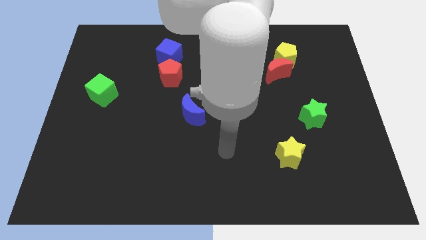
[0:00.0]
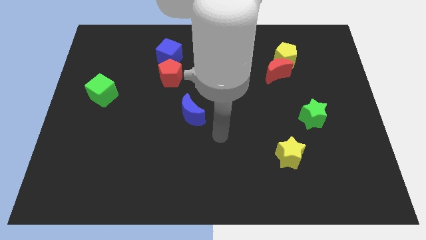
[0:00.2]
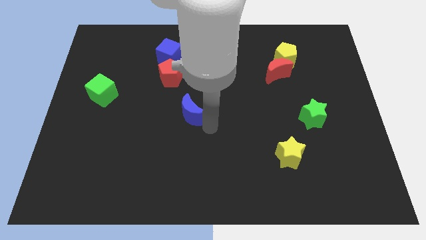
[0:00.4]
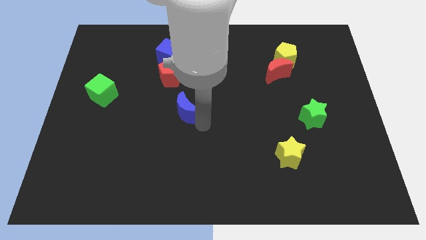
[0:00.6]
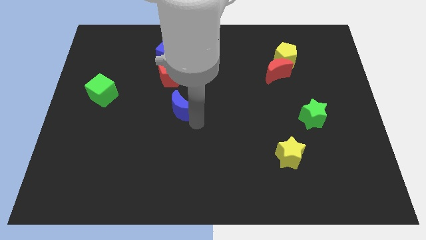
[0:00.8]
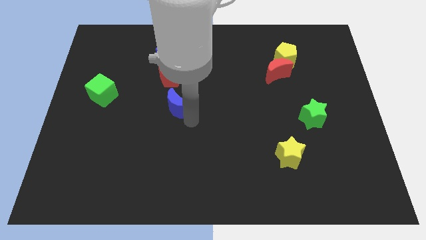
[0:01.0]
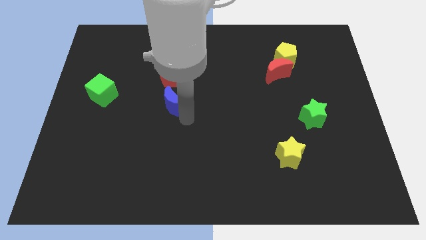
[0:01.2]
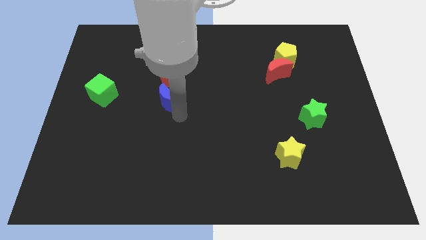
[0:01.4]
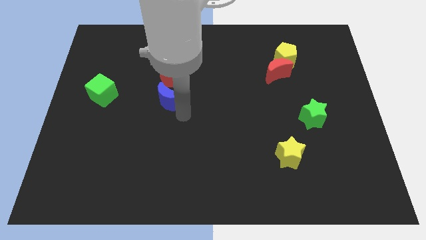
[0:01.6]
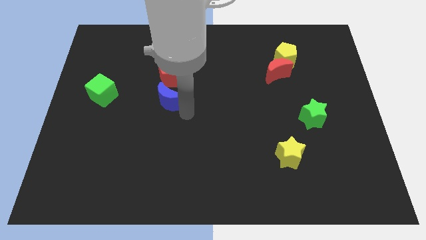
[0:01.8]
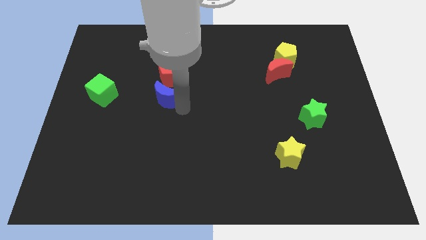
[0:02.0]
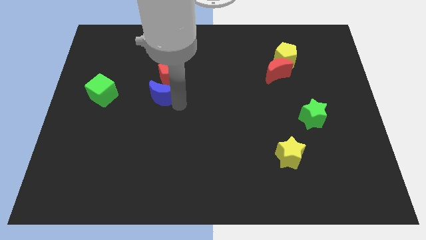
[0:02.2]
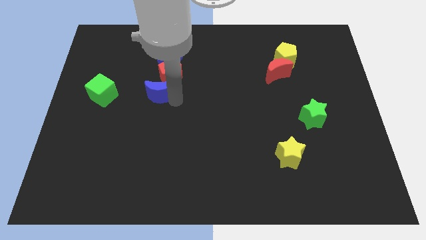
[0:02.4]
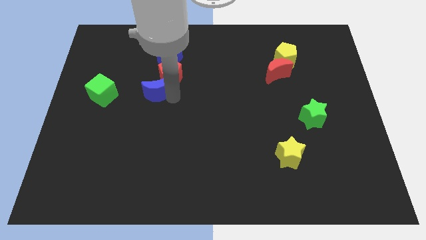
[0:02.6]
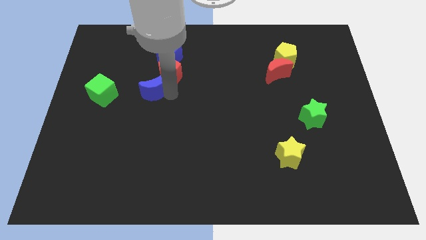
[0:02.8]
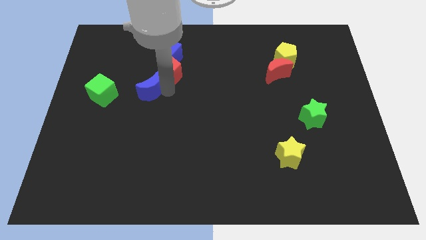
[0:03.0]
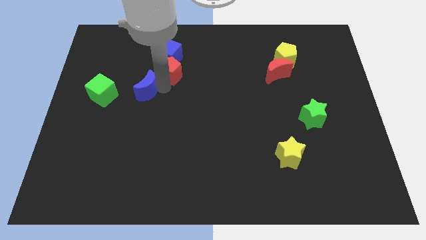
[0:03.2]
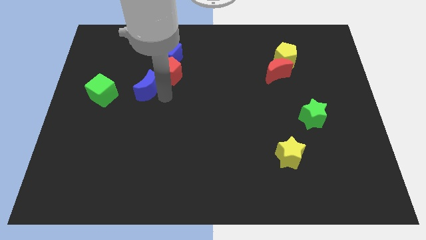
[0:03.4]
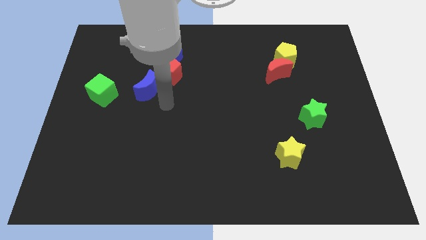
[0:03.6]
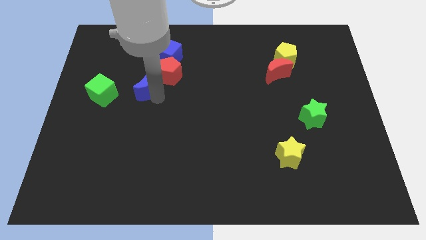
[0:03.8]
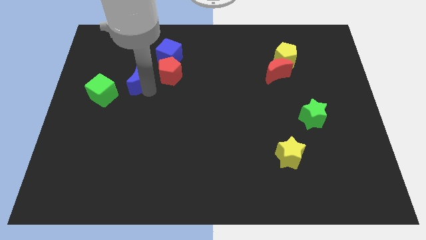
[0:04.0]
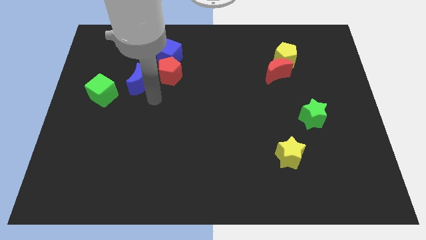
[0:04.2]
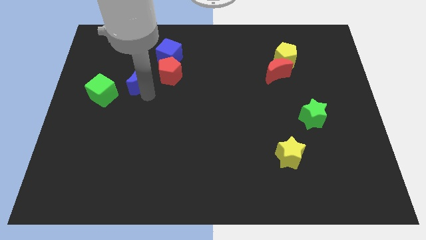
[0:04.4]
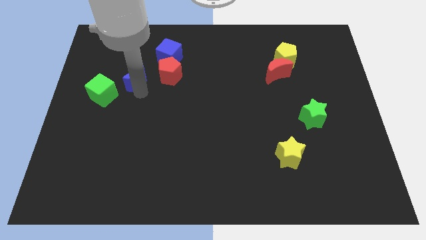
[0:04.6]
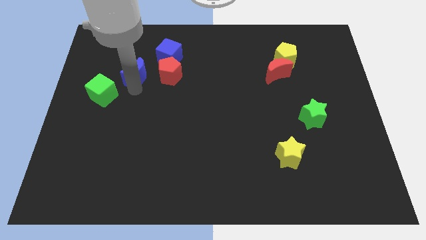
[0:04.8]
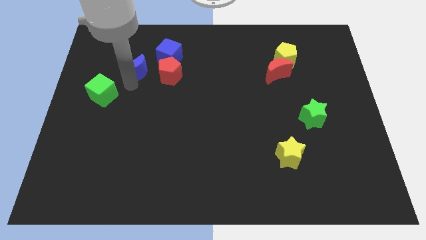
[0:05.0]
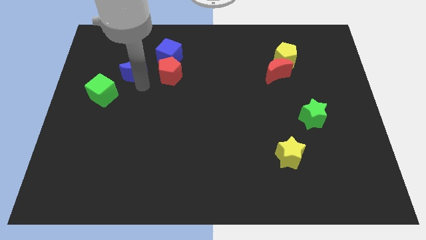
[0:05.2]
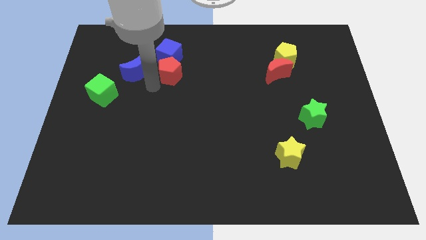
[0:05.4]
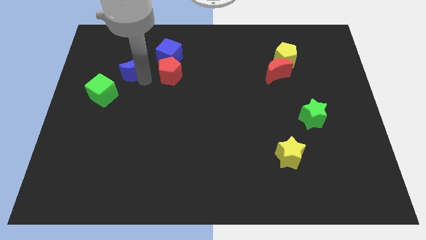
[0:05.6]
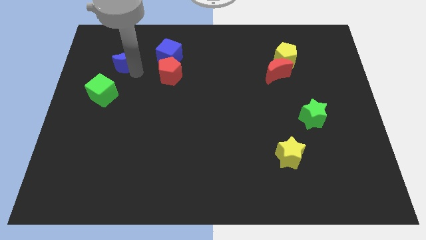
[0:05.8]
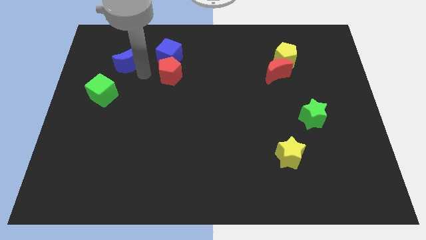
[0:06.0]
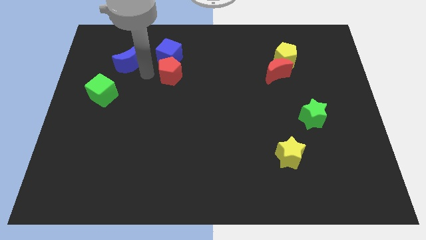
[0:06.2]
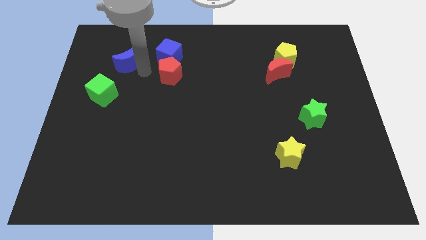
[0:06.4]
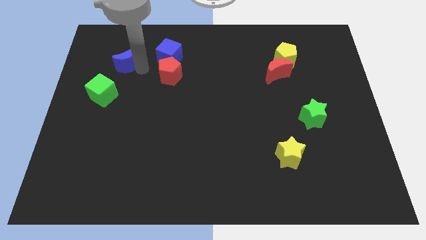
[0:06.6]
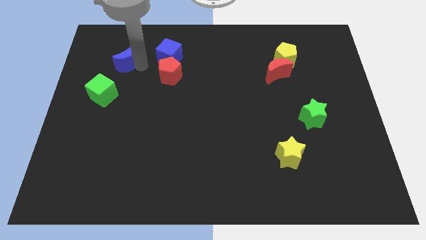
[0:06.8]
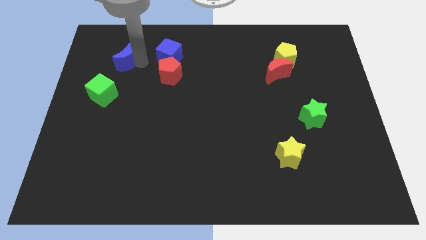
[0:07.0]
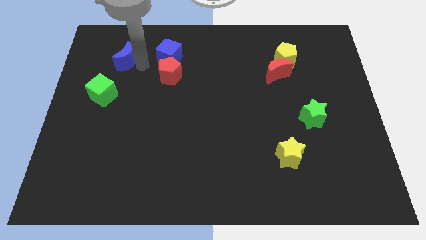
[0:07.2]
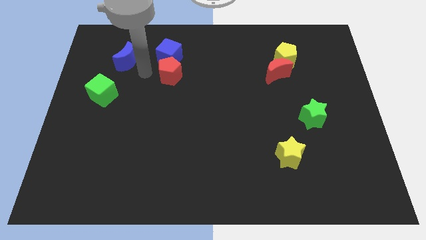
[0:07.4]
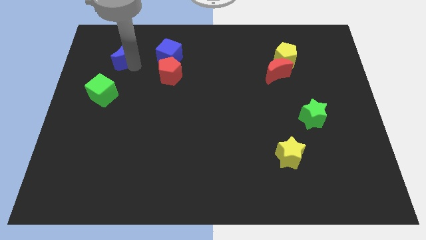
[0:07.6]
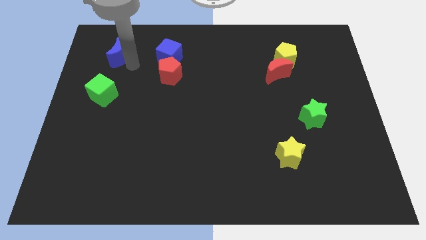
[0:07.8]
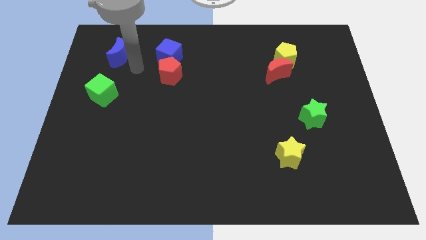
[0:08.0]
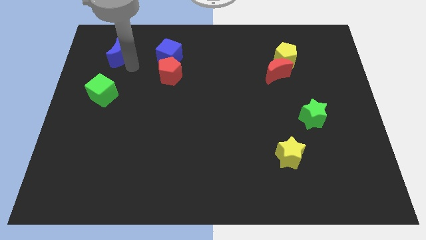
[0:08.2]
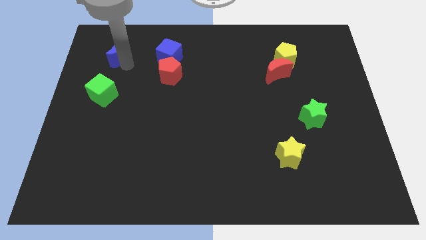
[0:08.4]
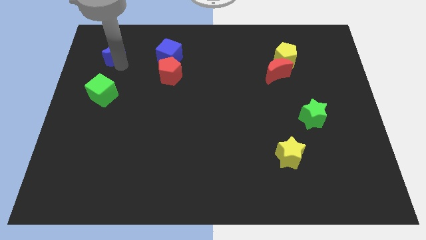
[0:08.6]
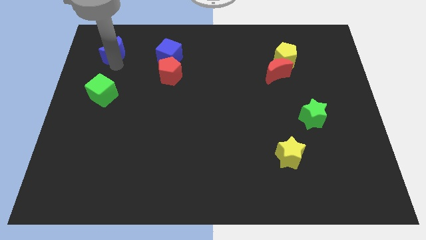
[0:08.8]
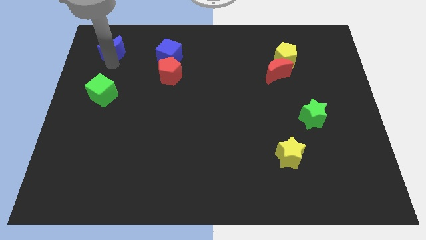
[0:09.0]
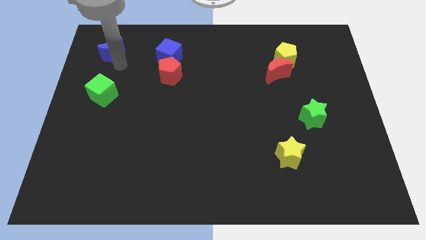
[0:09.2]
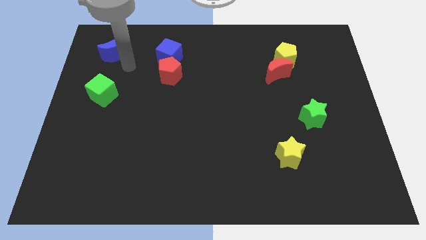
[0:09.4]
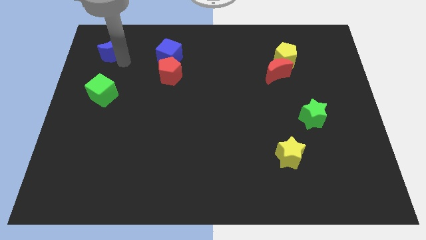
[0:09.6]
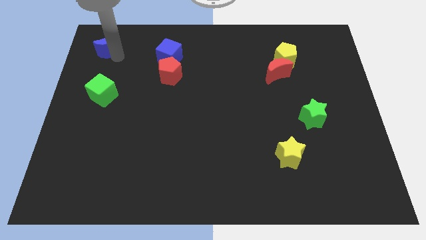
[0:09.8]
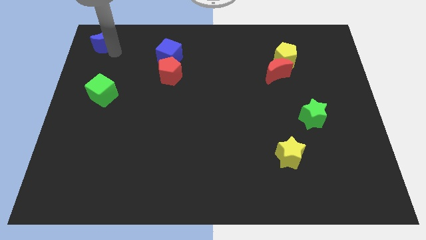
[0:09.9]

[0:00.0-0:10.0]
push the blue moon to the top left of the board
